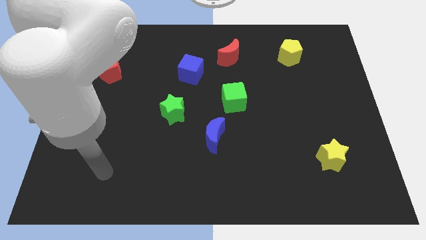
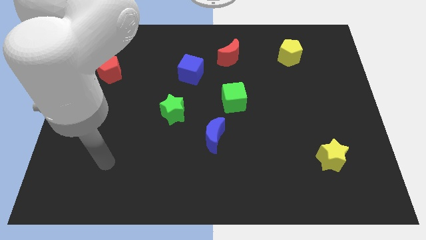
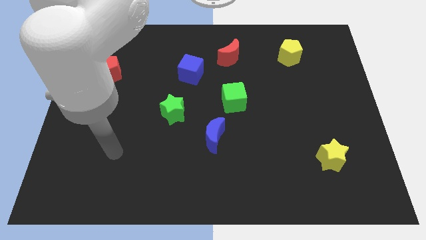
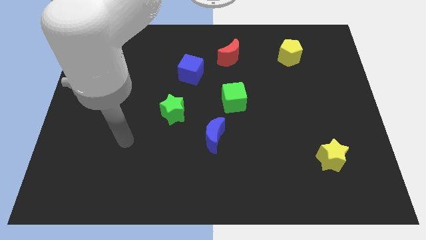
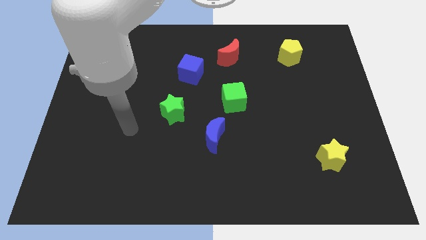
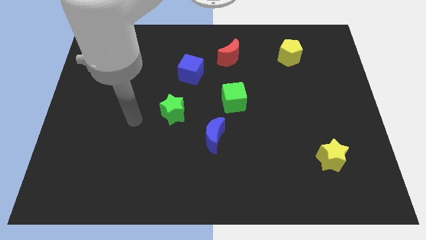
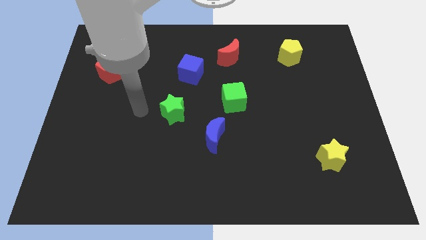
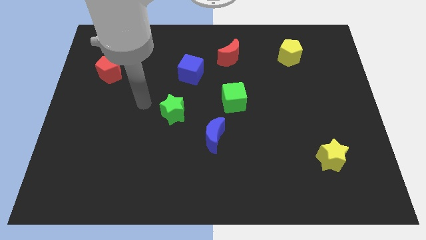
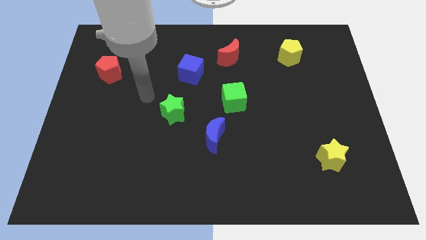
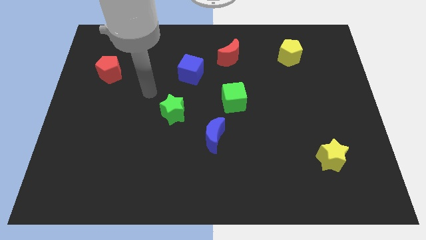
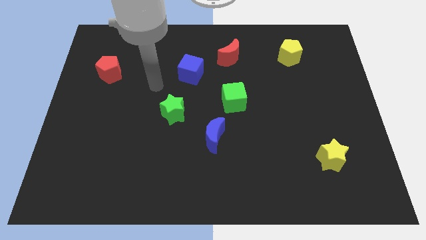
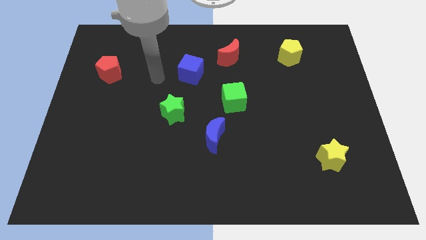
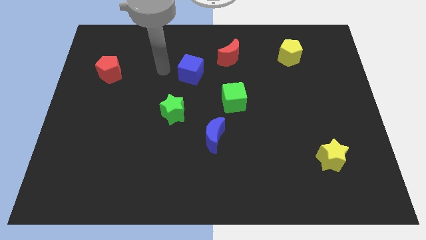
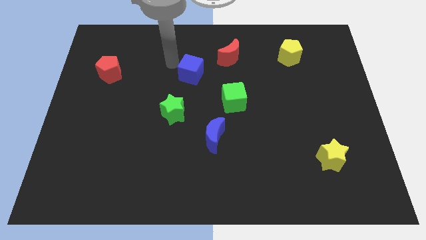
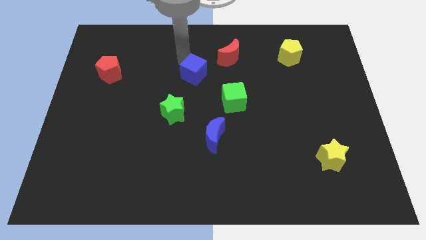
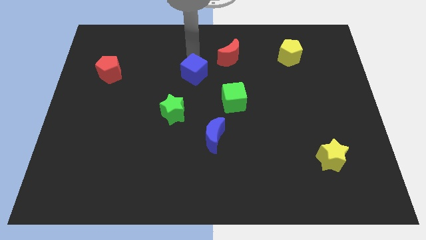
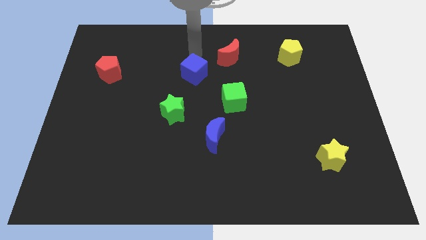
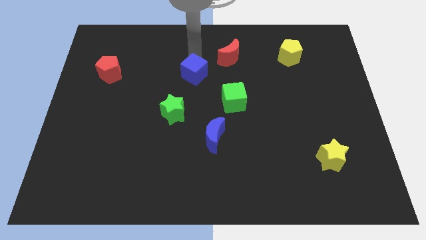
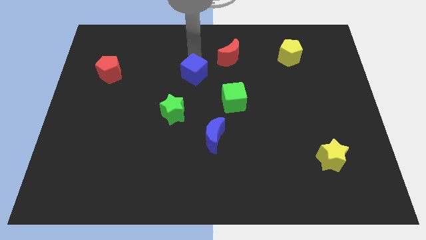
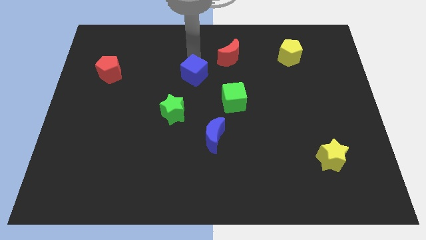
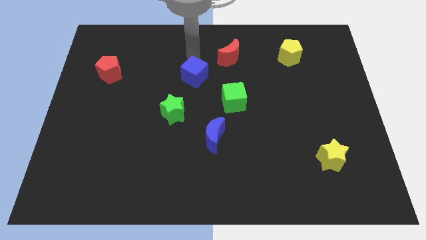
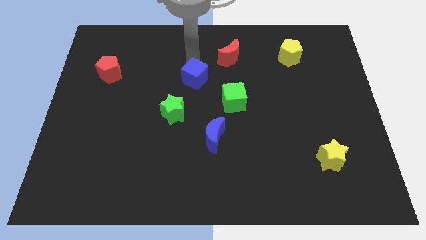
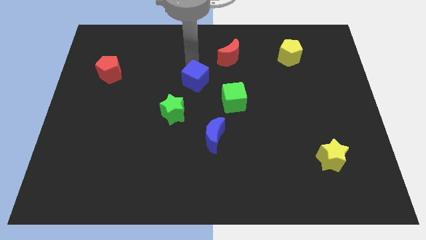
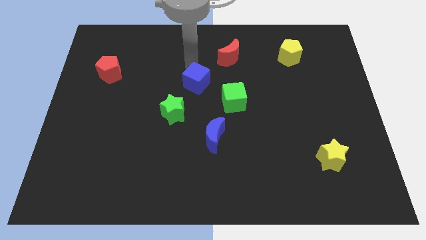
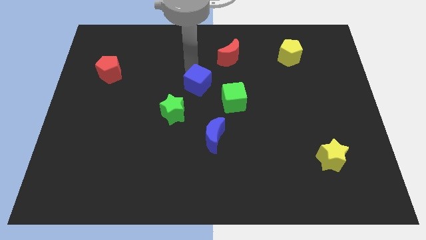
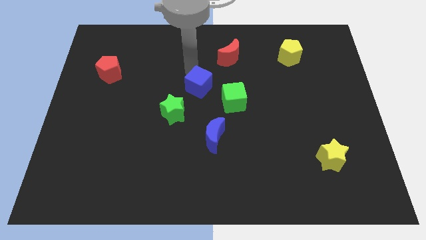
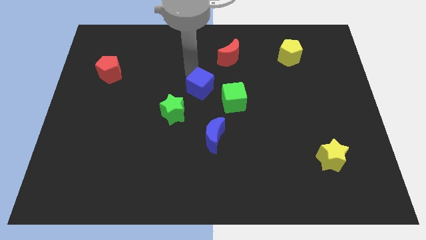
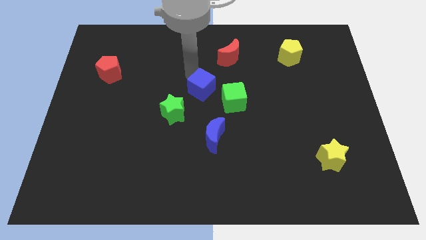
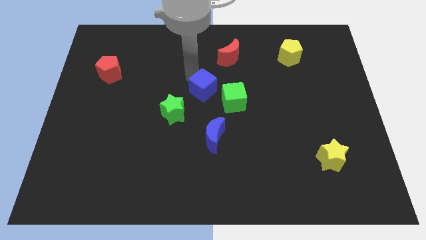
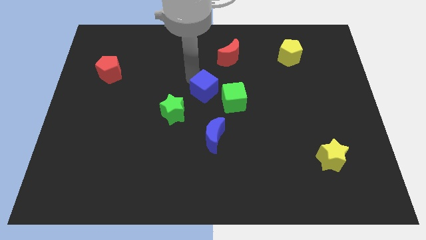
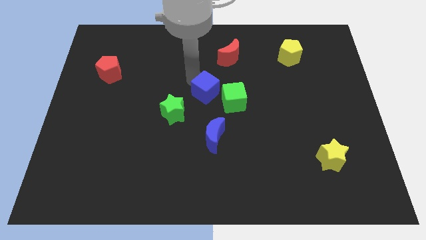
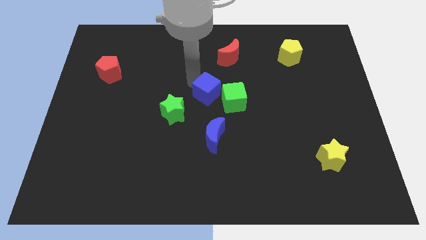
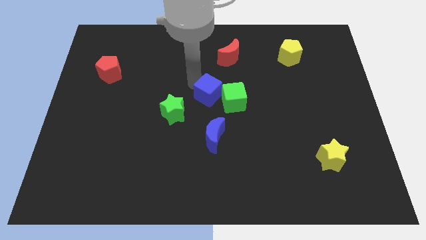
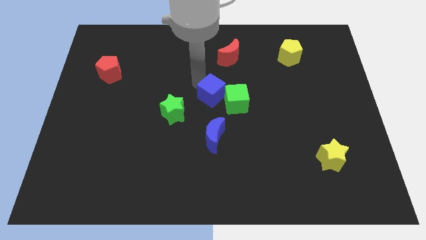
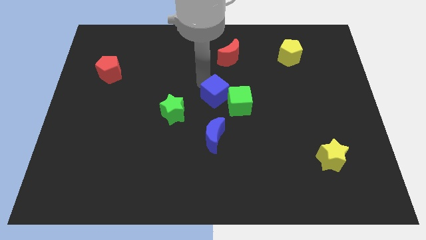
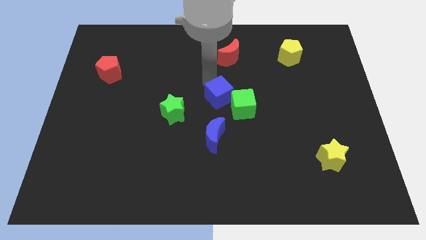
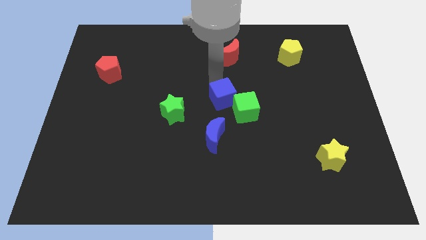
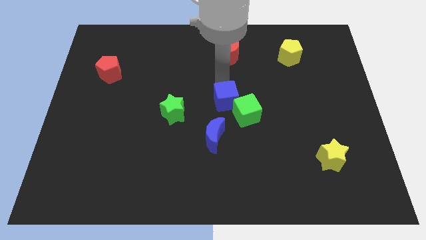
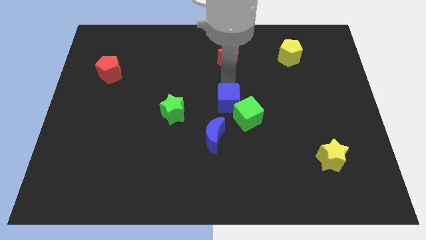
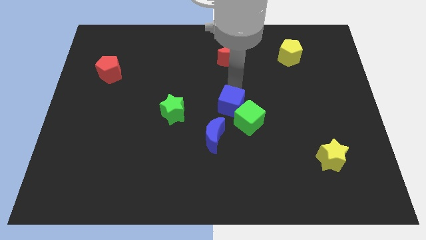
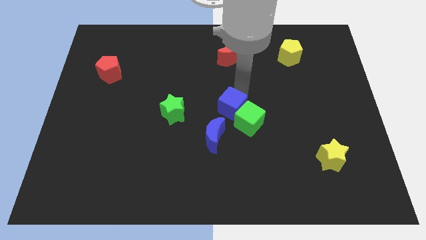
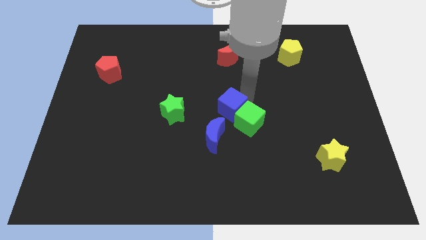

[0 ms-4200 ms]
move the blue cube down a bit

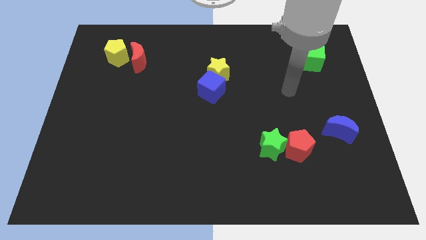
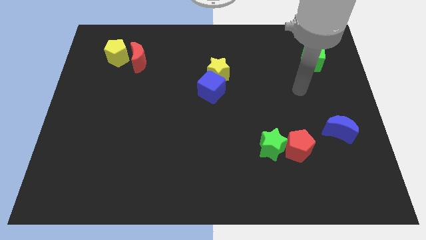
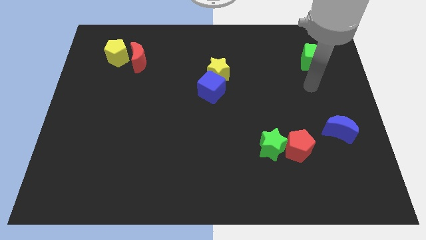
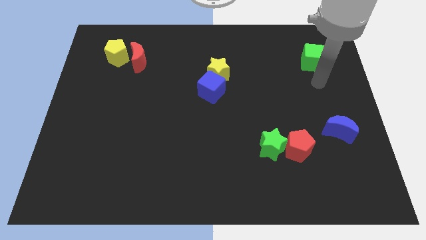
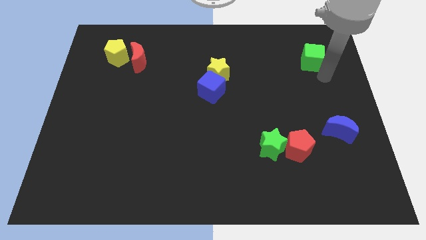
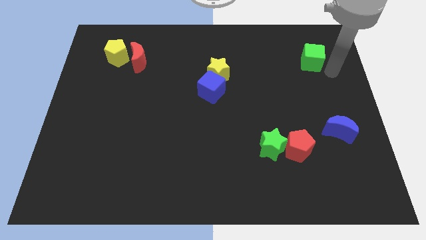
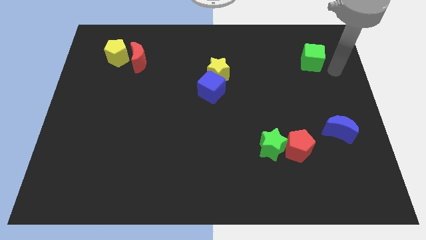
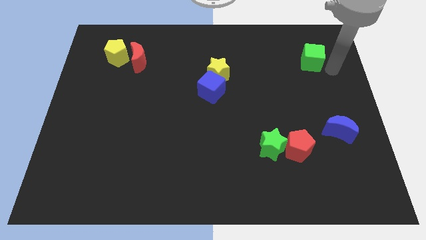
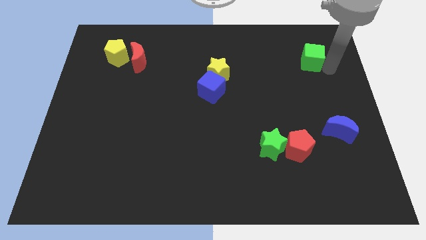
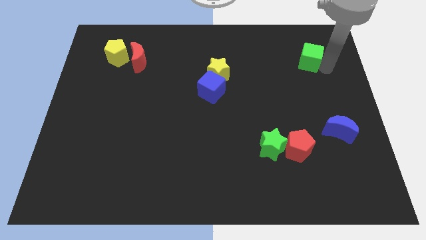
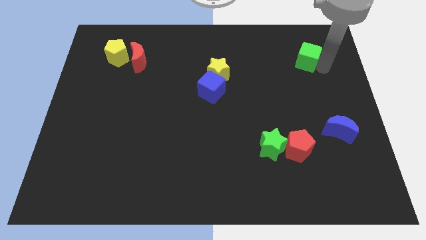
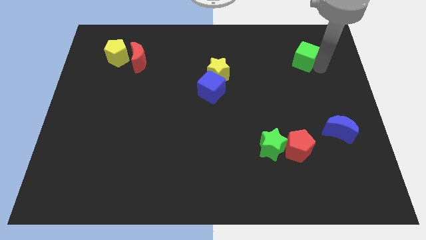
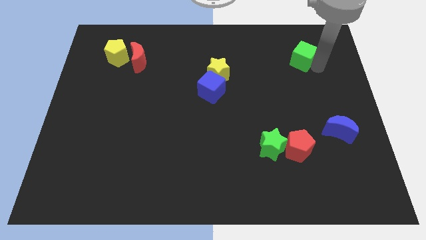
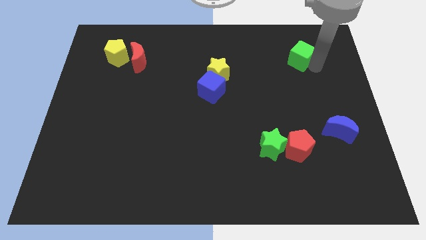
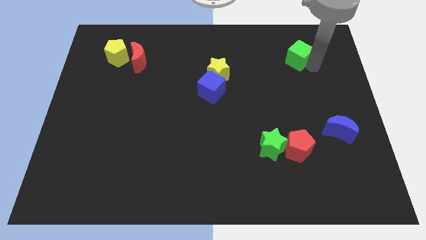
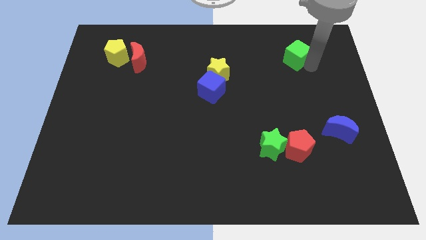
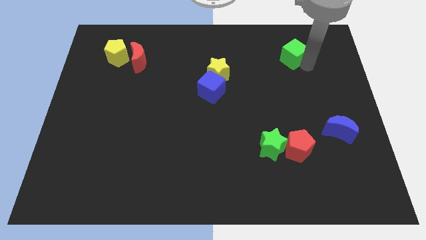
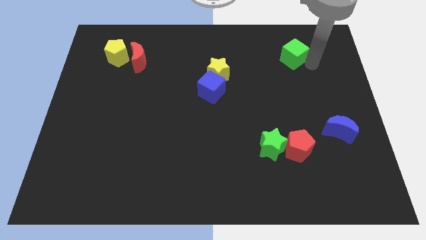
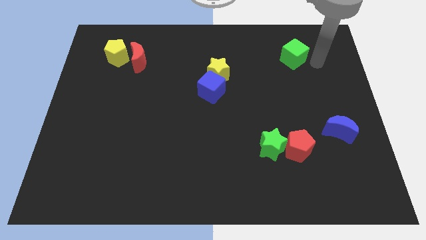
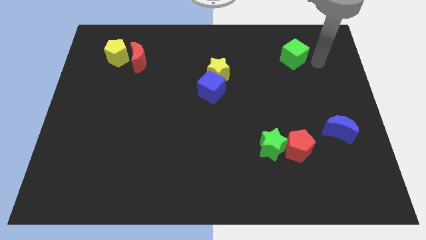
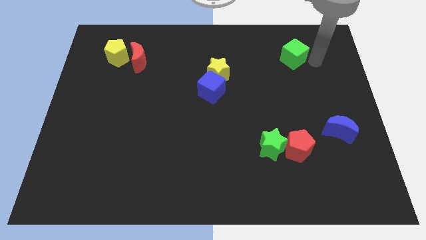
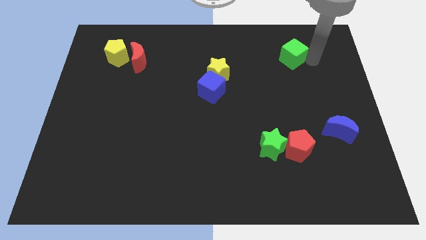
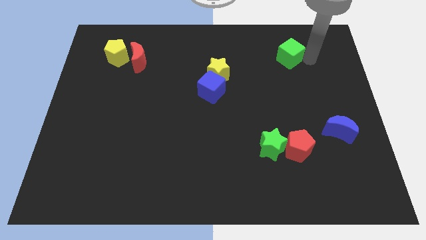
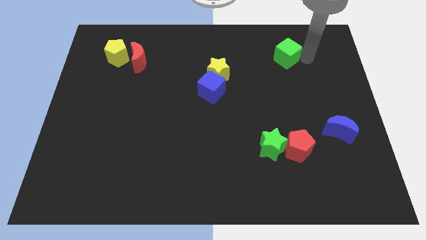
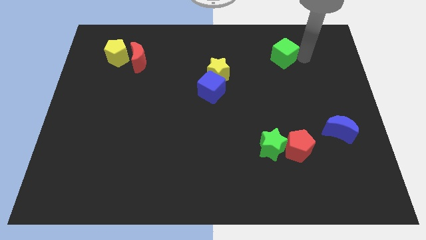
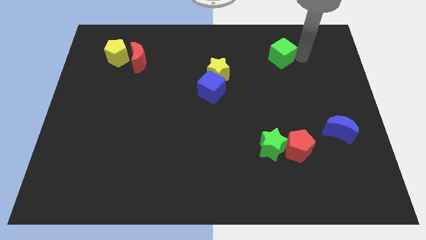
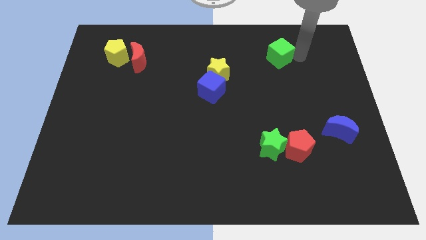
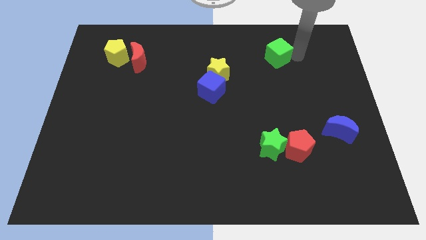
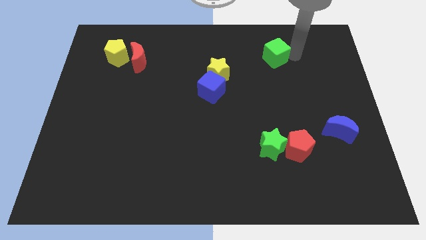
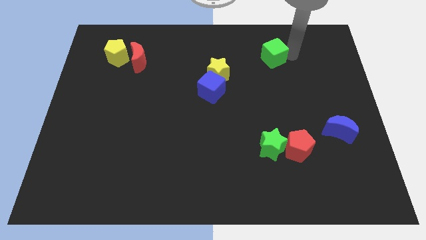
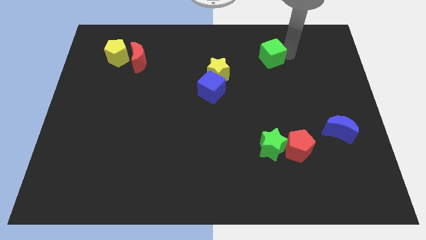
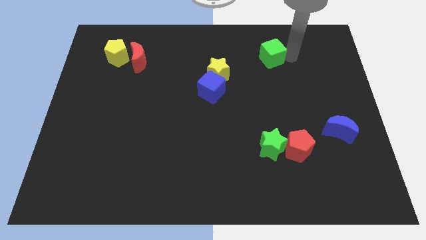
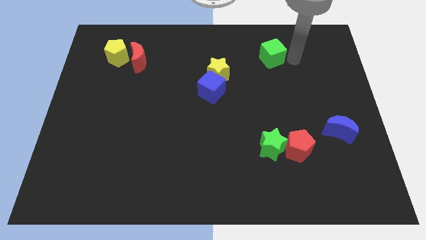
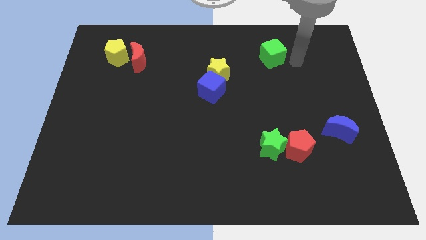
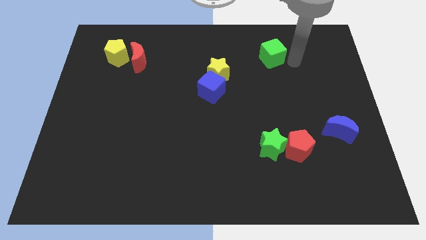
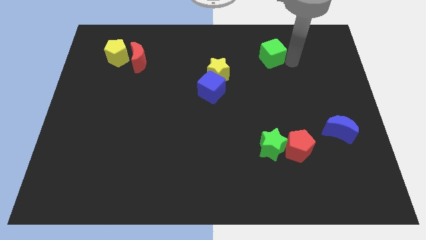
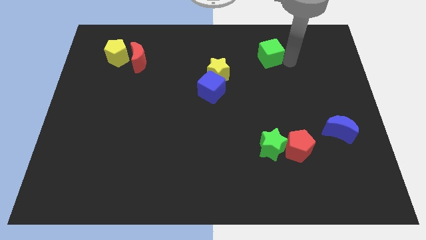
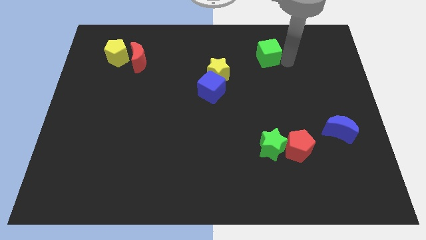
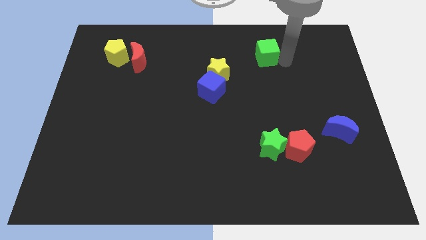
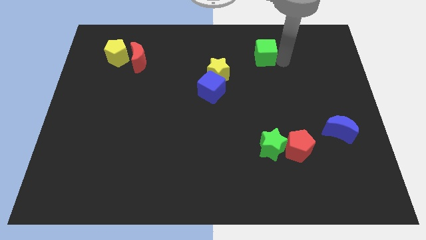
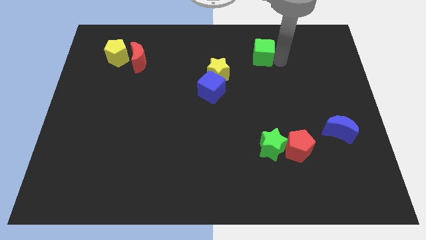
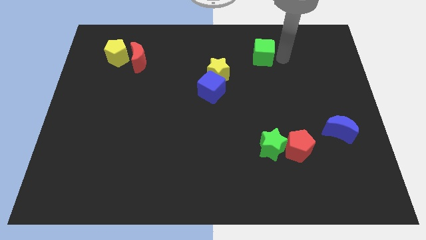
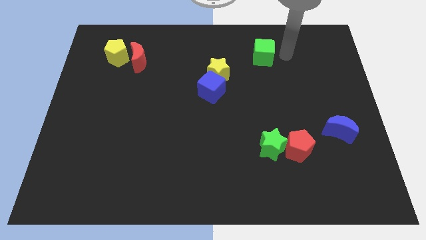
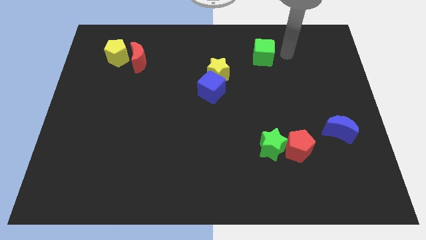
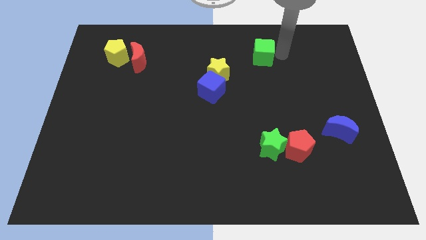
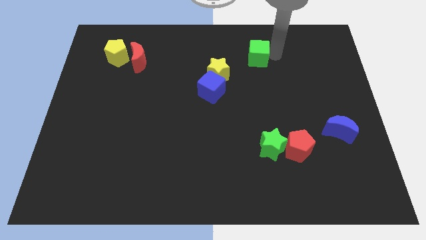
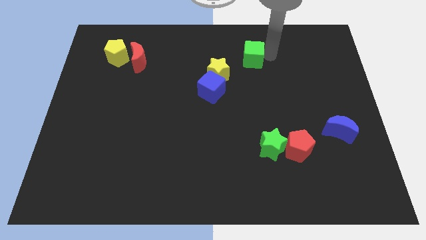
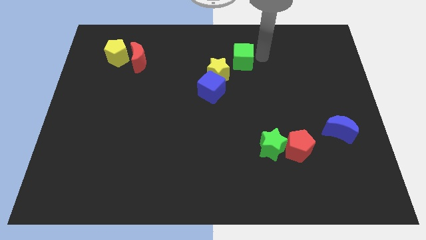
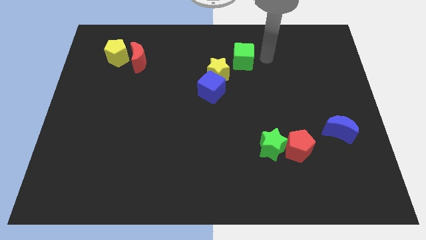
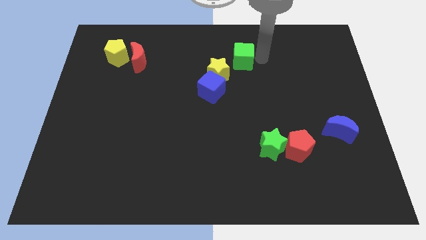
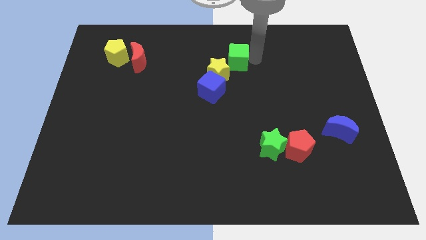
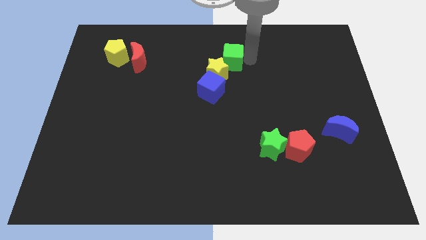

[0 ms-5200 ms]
move the green cube left
